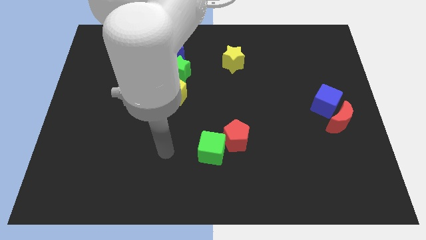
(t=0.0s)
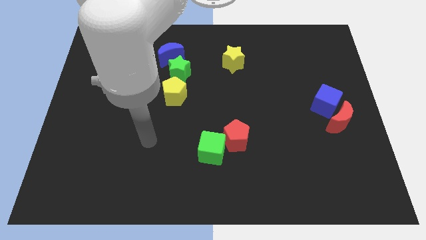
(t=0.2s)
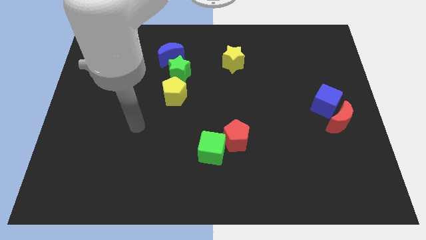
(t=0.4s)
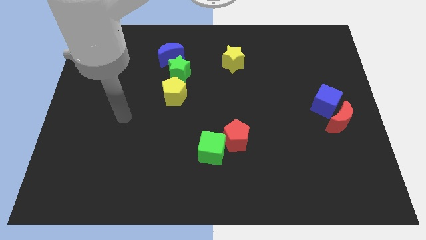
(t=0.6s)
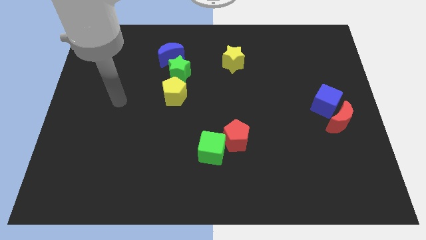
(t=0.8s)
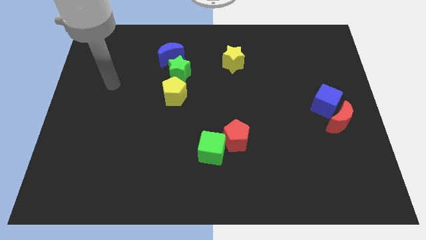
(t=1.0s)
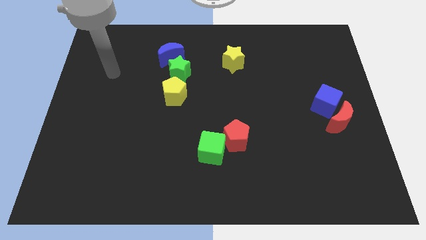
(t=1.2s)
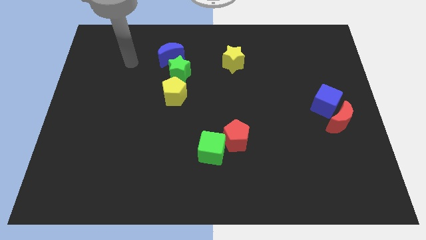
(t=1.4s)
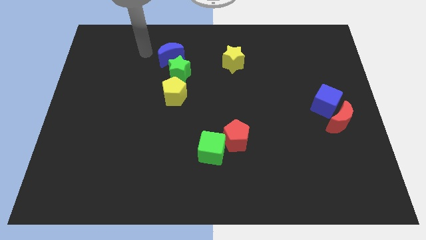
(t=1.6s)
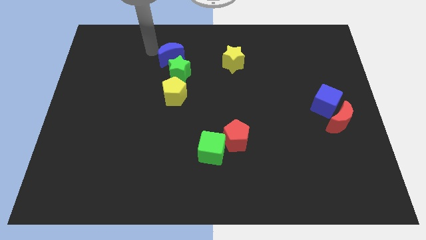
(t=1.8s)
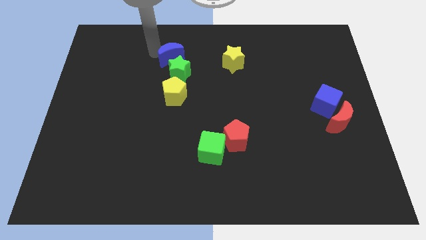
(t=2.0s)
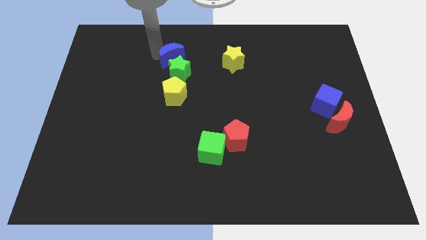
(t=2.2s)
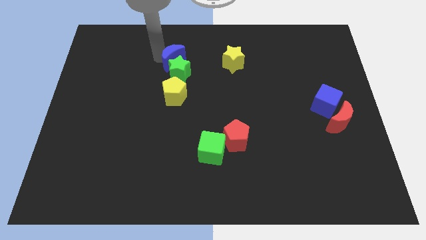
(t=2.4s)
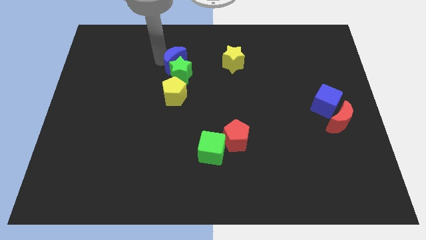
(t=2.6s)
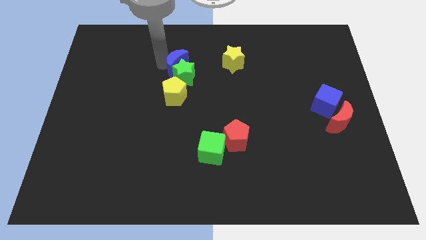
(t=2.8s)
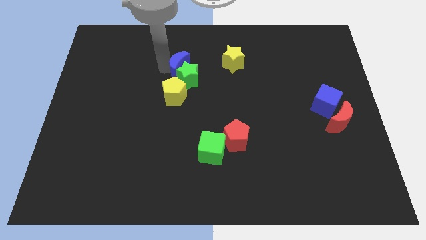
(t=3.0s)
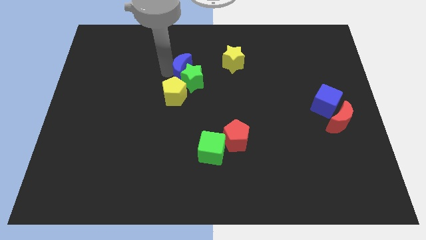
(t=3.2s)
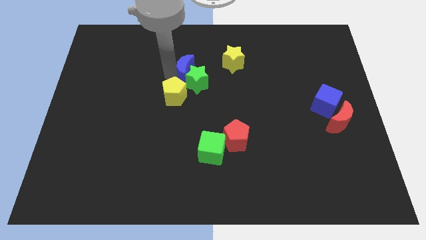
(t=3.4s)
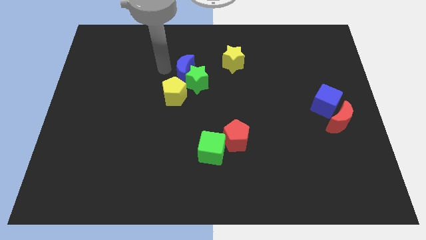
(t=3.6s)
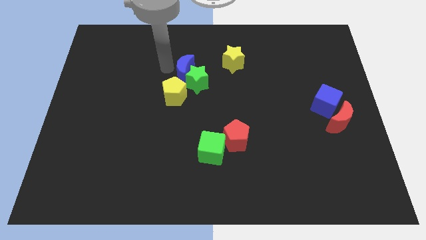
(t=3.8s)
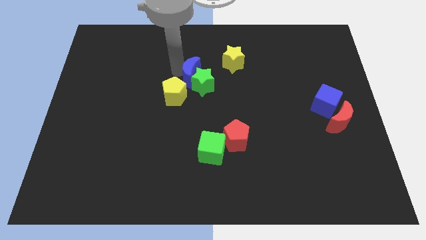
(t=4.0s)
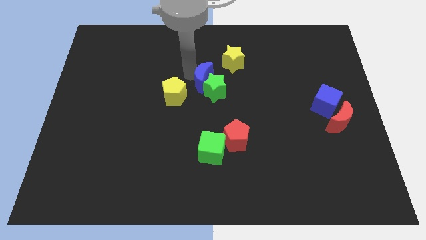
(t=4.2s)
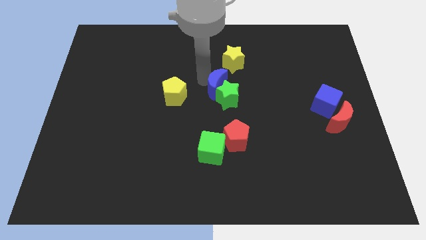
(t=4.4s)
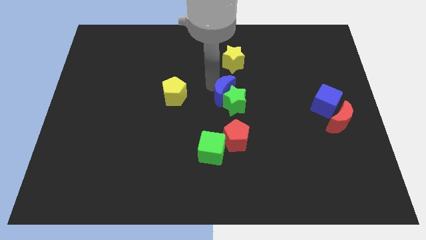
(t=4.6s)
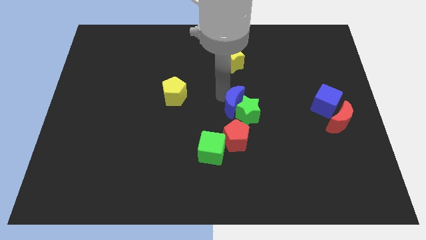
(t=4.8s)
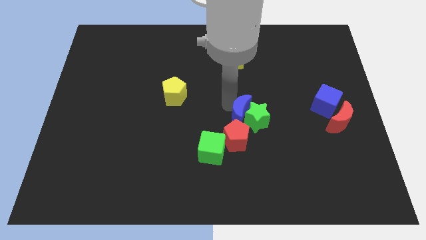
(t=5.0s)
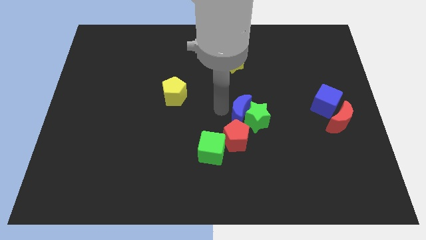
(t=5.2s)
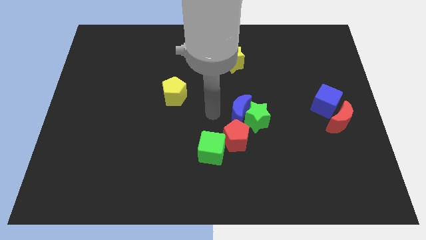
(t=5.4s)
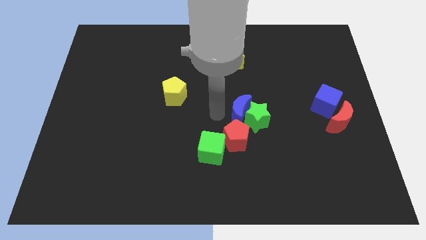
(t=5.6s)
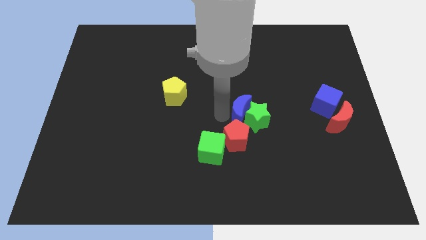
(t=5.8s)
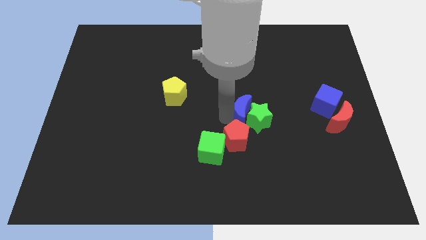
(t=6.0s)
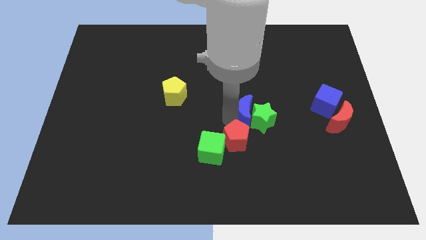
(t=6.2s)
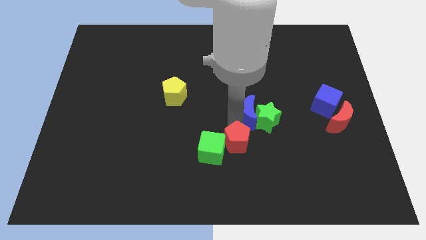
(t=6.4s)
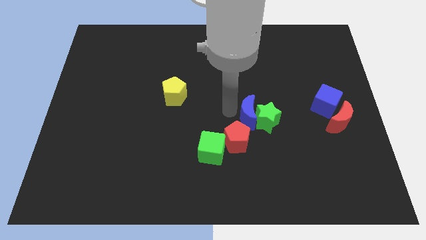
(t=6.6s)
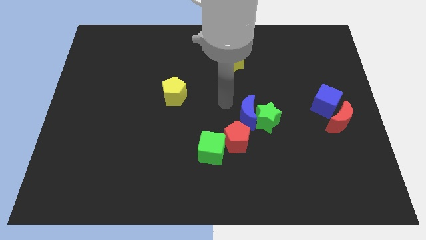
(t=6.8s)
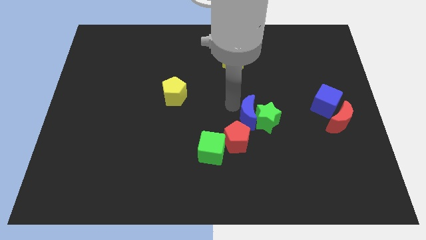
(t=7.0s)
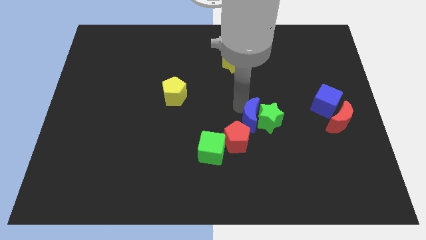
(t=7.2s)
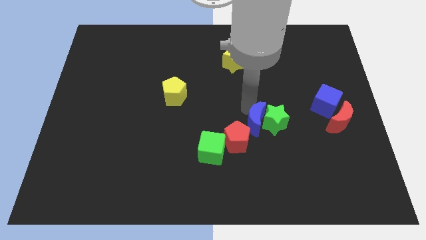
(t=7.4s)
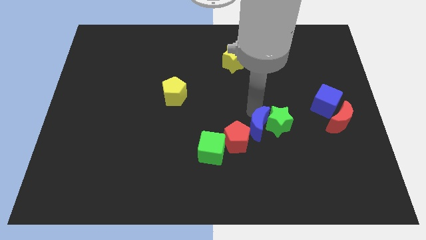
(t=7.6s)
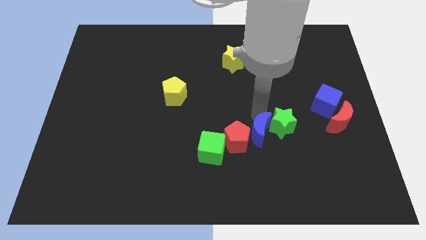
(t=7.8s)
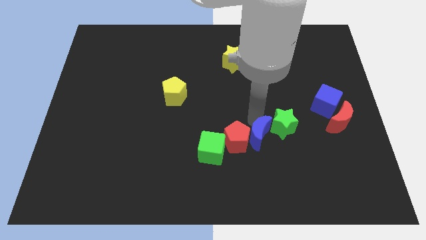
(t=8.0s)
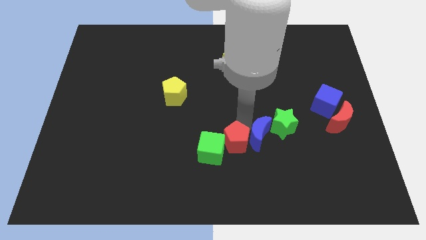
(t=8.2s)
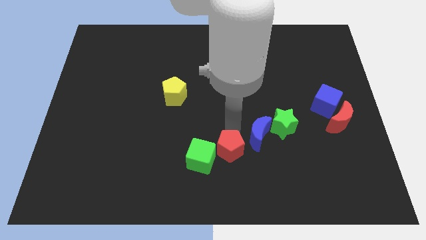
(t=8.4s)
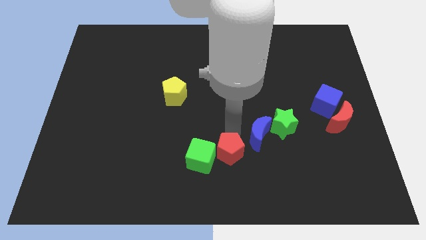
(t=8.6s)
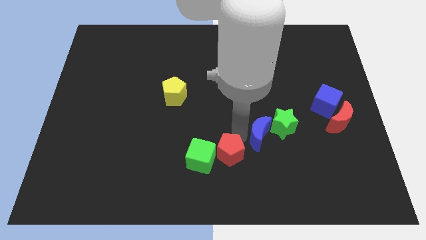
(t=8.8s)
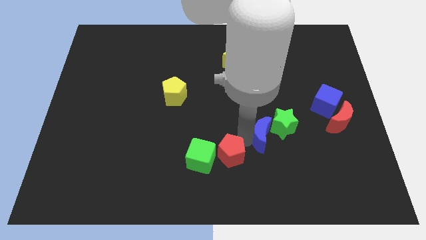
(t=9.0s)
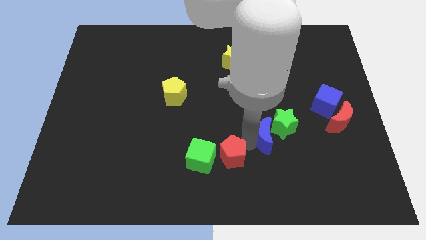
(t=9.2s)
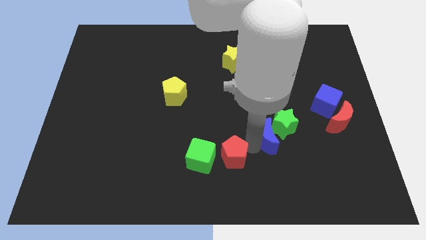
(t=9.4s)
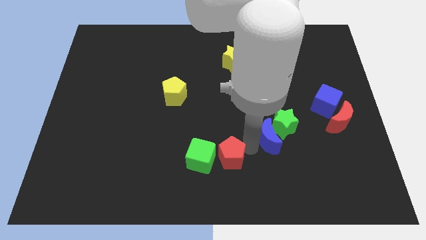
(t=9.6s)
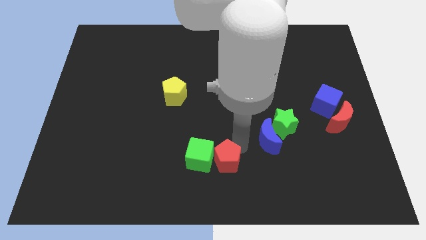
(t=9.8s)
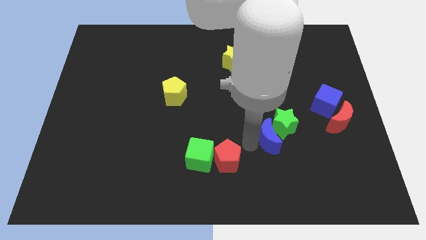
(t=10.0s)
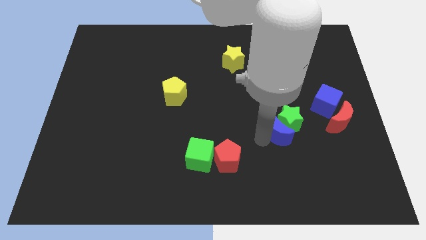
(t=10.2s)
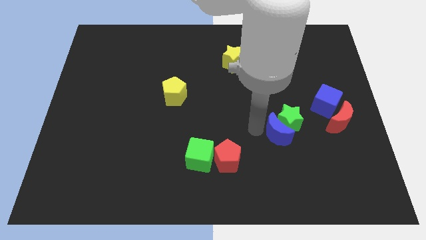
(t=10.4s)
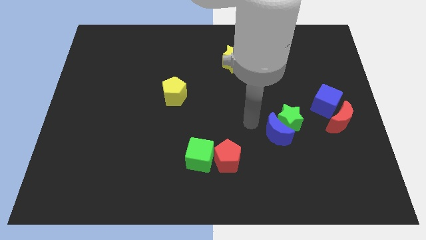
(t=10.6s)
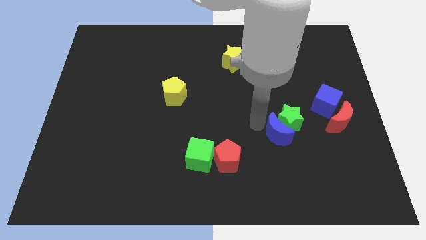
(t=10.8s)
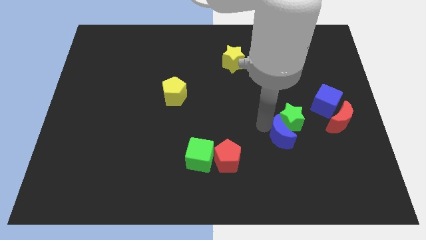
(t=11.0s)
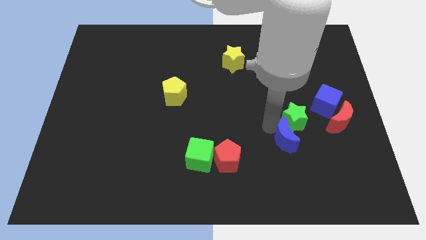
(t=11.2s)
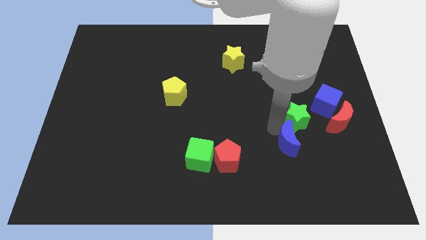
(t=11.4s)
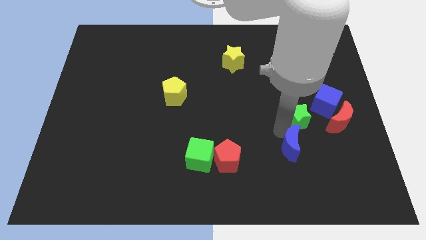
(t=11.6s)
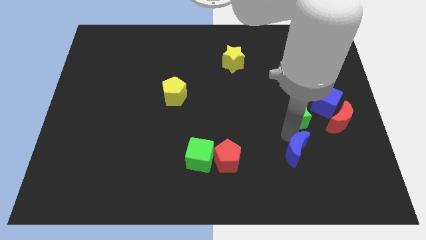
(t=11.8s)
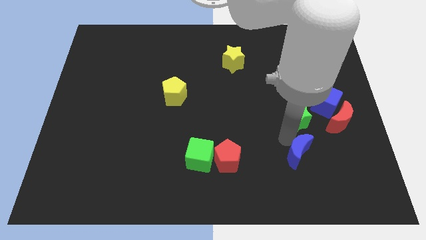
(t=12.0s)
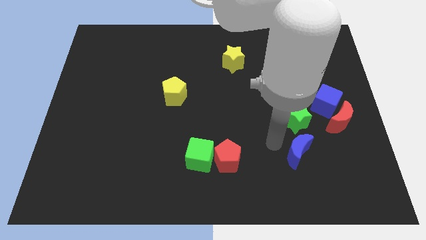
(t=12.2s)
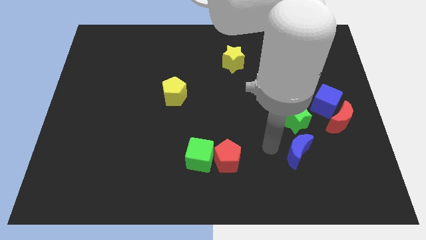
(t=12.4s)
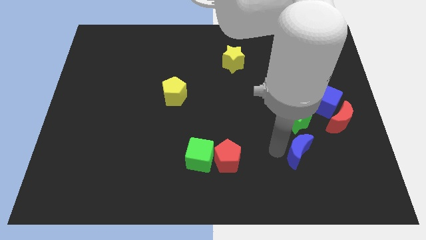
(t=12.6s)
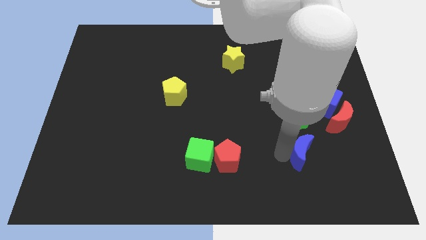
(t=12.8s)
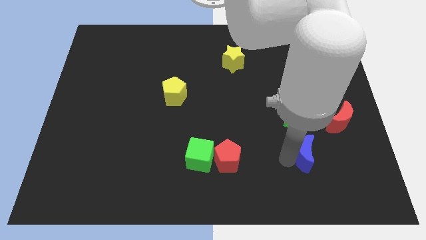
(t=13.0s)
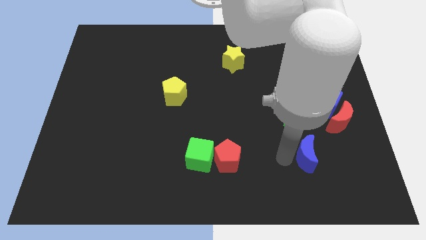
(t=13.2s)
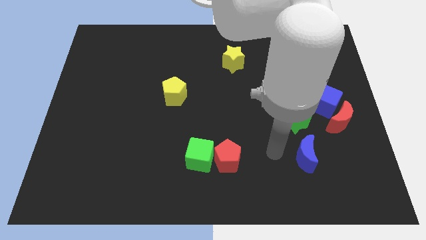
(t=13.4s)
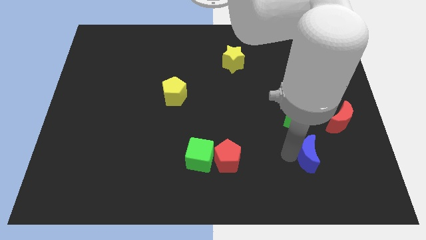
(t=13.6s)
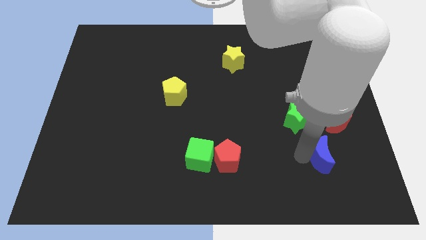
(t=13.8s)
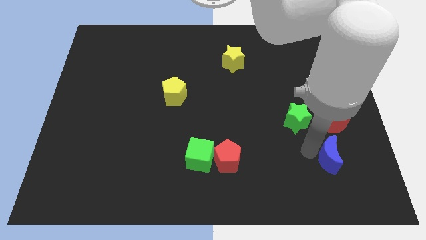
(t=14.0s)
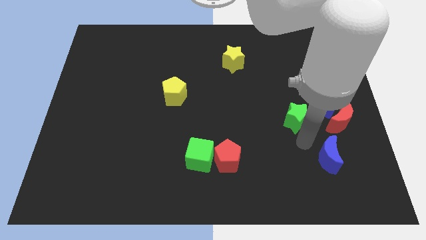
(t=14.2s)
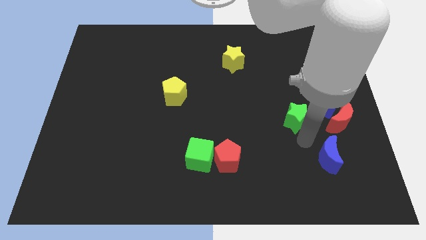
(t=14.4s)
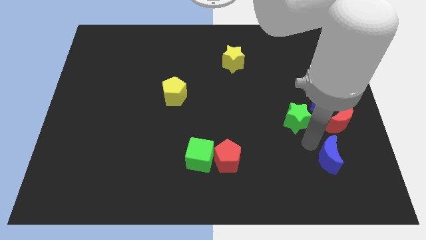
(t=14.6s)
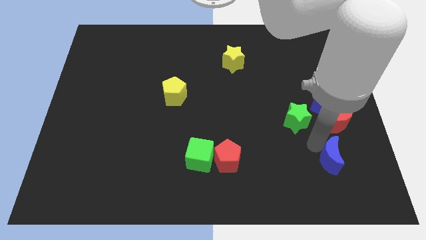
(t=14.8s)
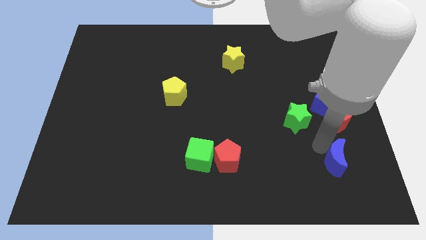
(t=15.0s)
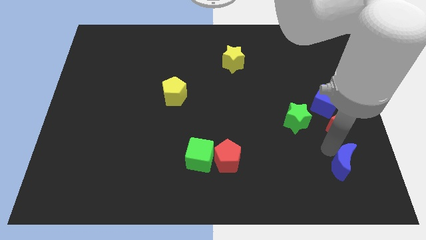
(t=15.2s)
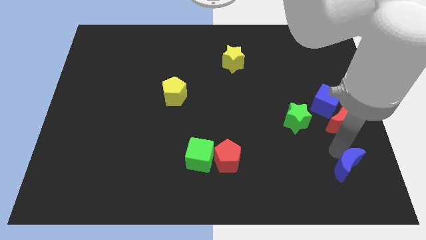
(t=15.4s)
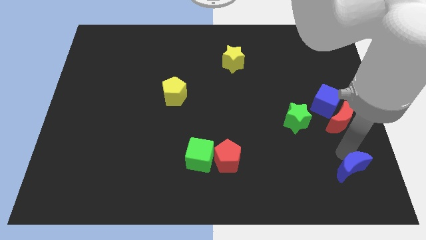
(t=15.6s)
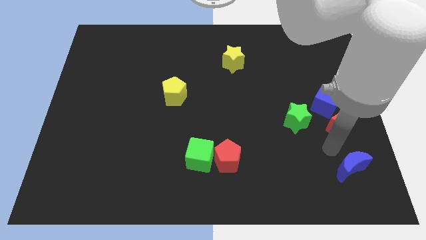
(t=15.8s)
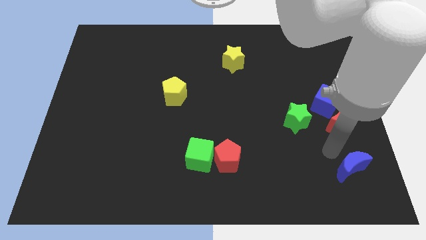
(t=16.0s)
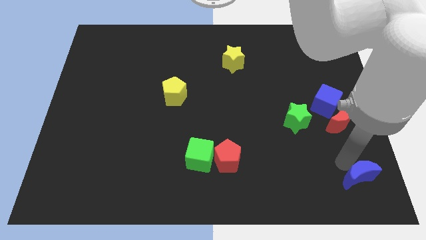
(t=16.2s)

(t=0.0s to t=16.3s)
move the blue moon to the bottom right of the board
